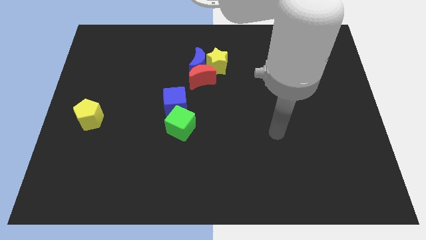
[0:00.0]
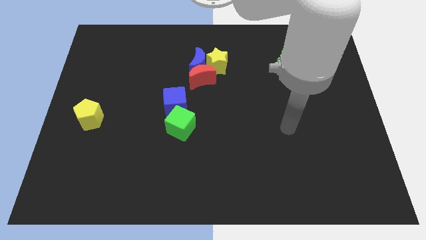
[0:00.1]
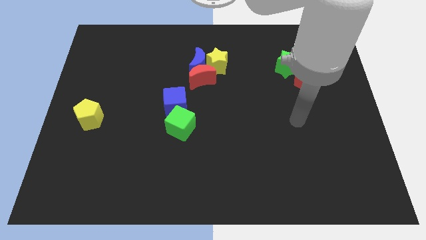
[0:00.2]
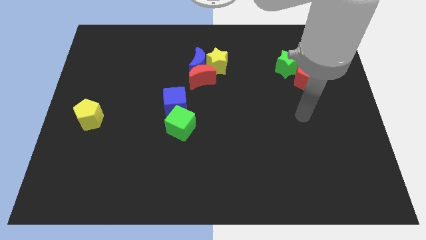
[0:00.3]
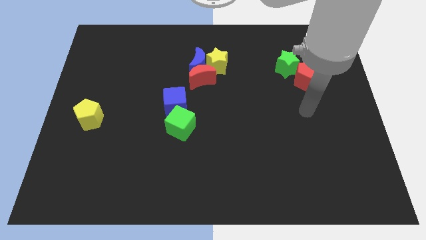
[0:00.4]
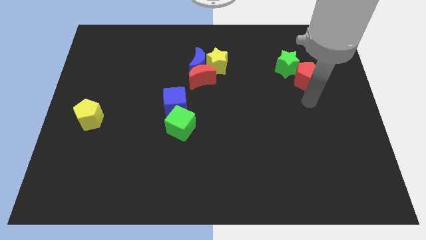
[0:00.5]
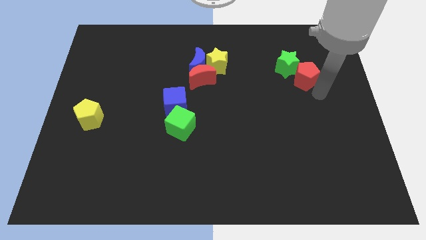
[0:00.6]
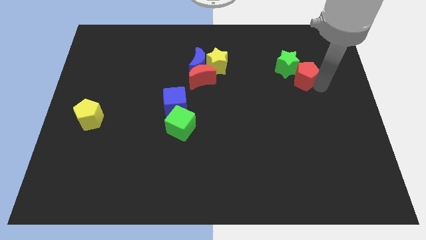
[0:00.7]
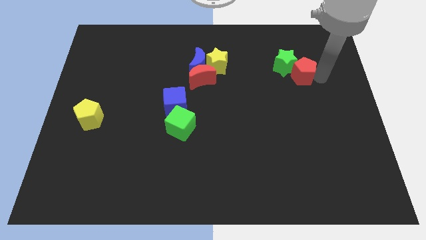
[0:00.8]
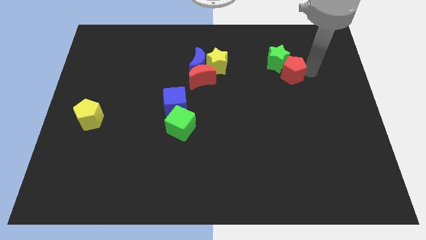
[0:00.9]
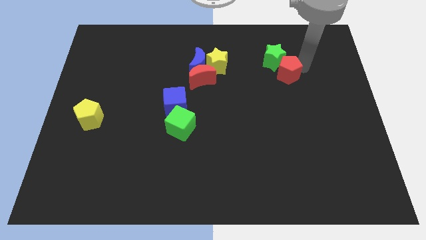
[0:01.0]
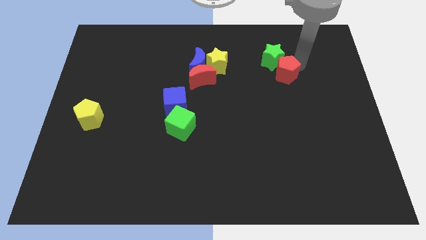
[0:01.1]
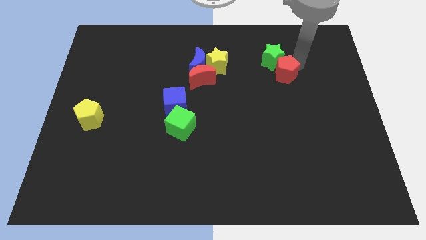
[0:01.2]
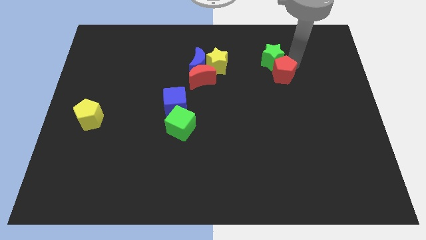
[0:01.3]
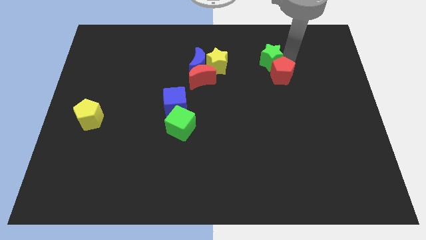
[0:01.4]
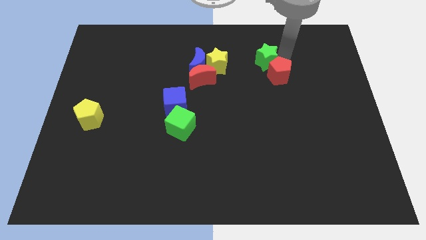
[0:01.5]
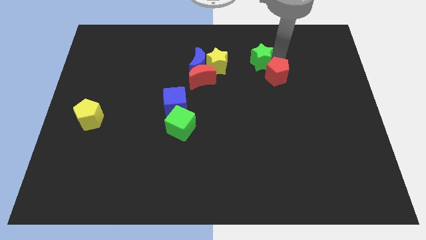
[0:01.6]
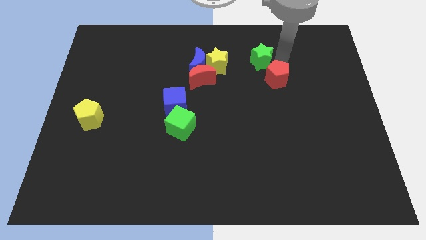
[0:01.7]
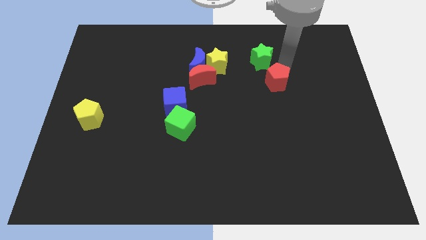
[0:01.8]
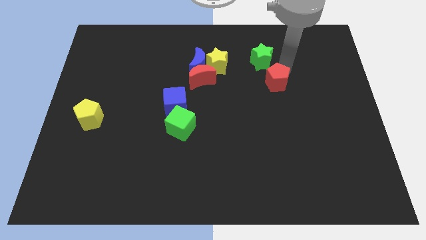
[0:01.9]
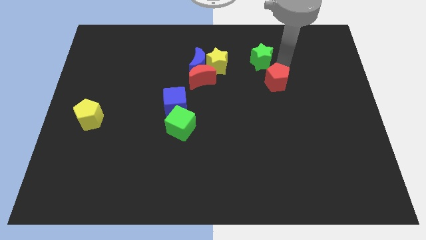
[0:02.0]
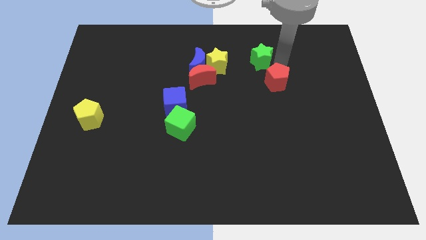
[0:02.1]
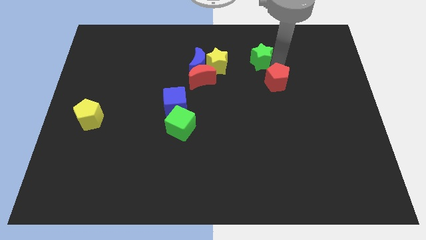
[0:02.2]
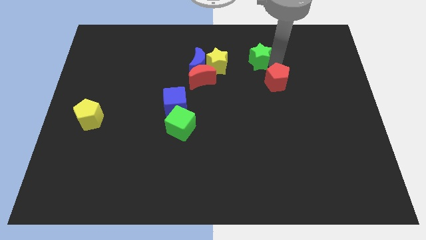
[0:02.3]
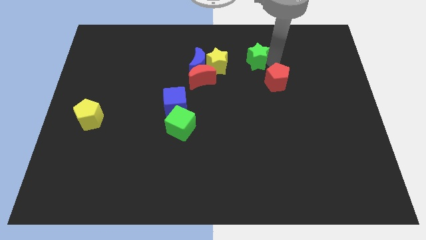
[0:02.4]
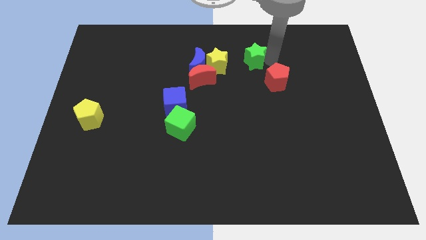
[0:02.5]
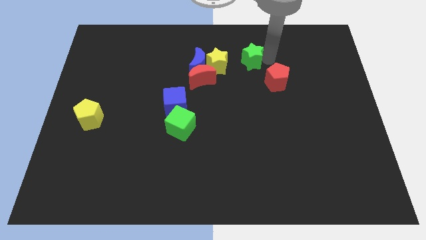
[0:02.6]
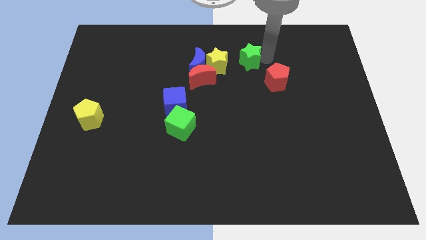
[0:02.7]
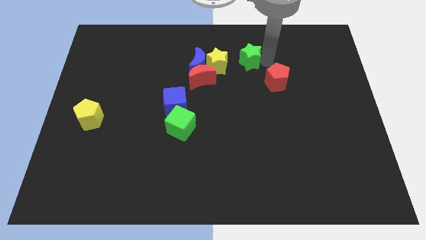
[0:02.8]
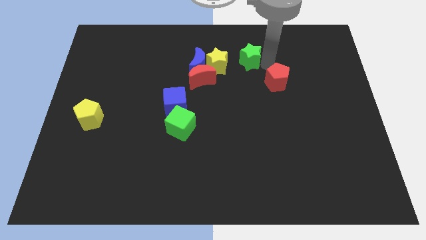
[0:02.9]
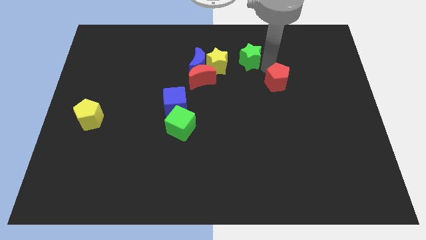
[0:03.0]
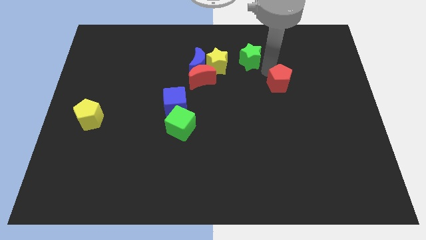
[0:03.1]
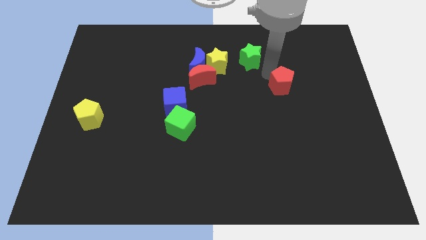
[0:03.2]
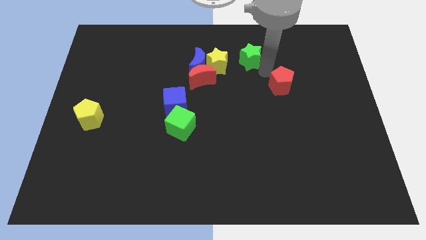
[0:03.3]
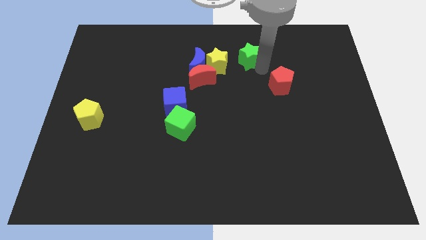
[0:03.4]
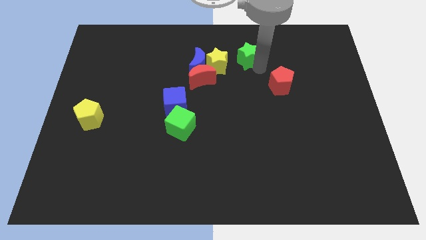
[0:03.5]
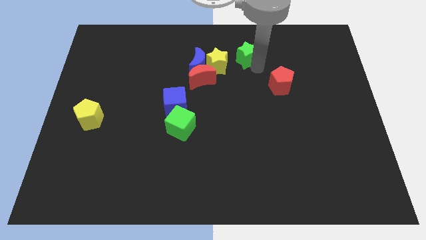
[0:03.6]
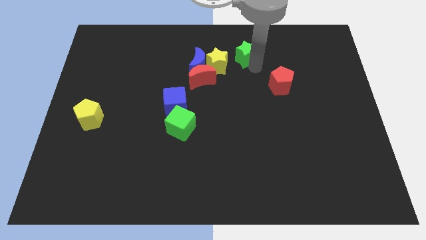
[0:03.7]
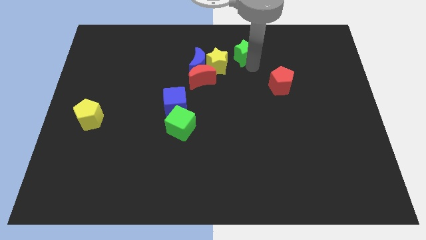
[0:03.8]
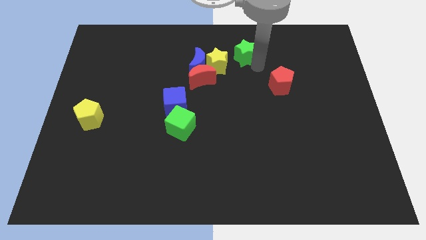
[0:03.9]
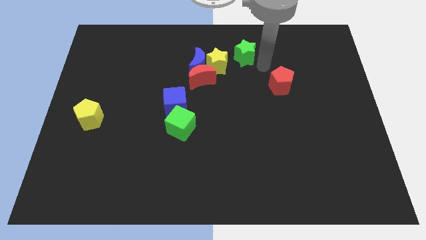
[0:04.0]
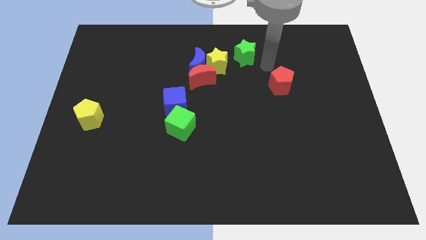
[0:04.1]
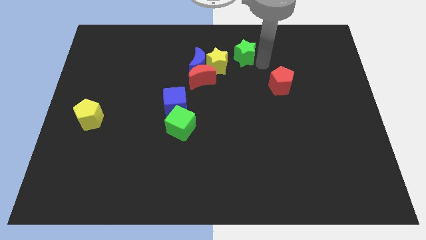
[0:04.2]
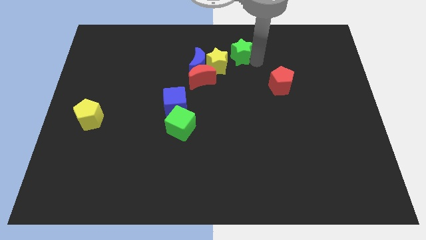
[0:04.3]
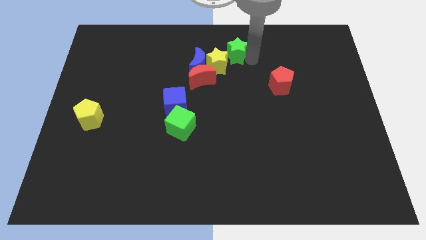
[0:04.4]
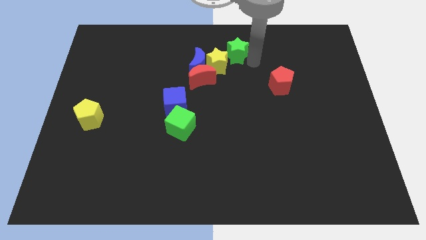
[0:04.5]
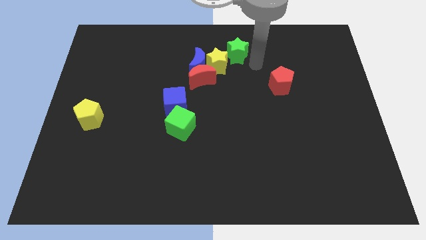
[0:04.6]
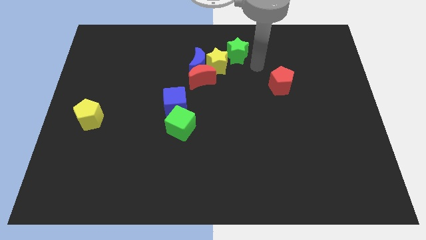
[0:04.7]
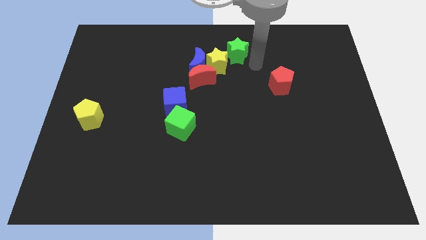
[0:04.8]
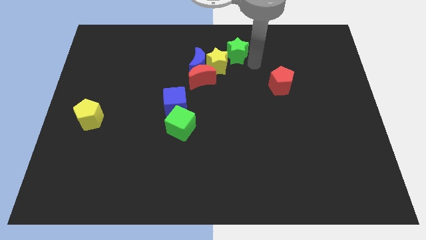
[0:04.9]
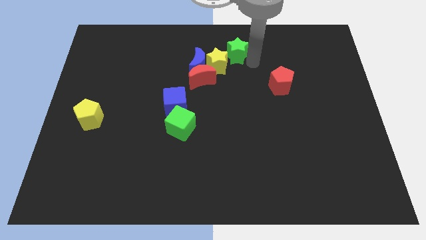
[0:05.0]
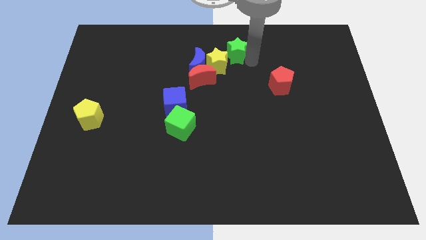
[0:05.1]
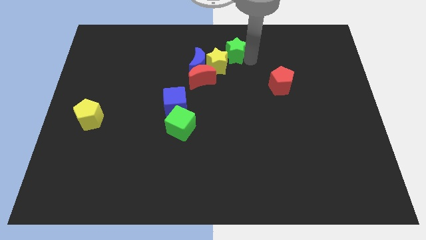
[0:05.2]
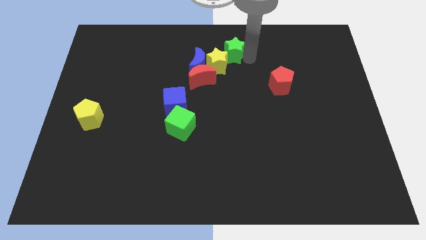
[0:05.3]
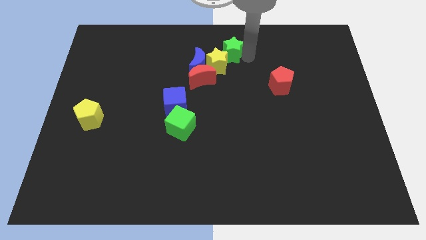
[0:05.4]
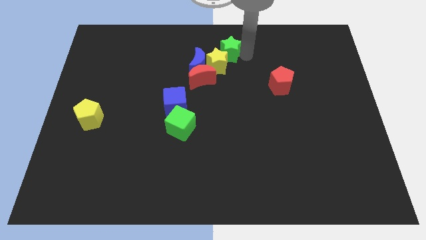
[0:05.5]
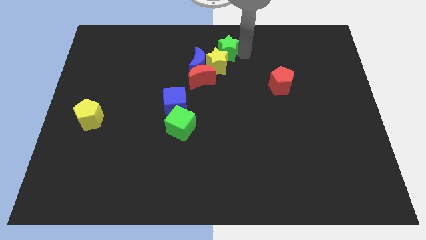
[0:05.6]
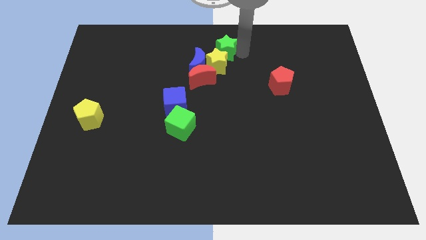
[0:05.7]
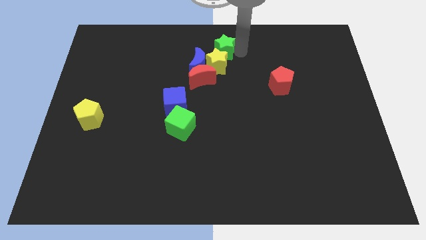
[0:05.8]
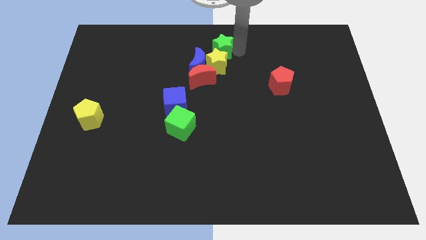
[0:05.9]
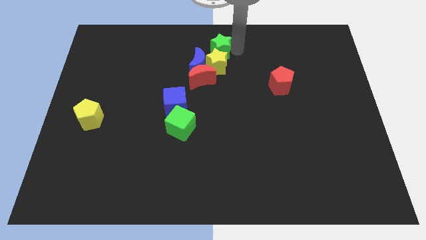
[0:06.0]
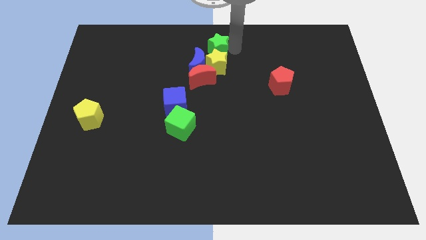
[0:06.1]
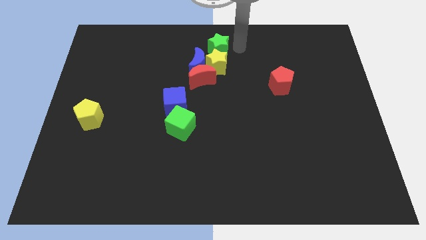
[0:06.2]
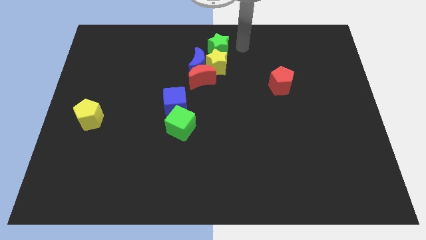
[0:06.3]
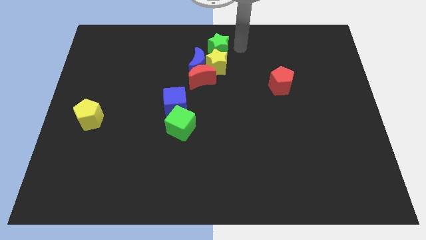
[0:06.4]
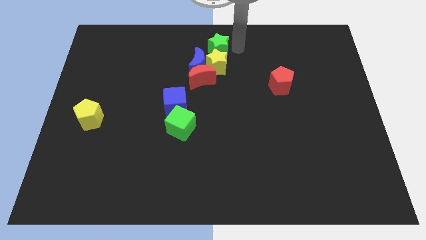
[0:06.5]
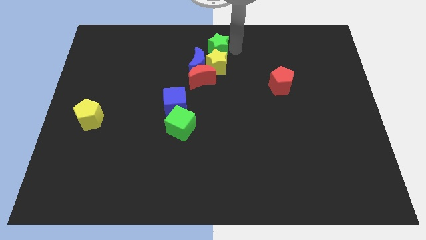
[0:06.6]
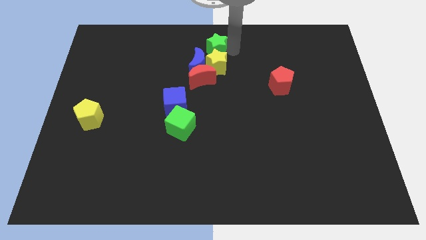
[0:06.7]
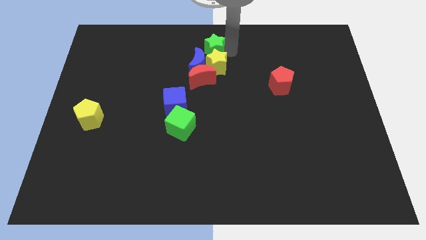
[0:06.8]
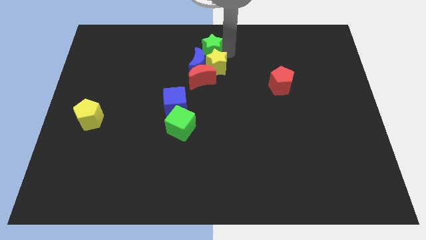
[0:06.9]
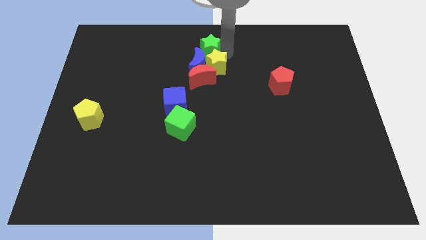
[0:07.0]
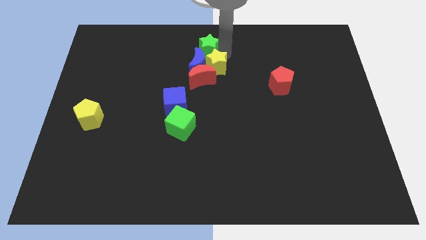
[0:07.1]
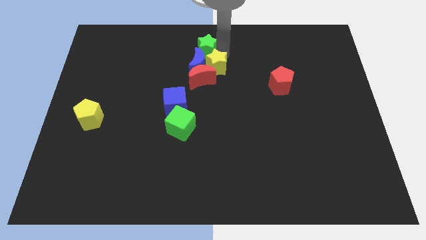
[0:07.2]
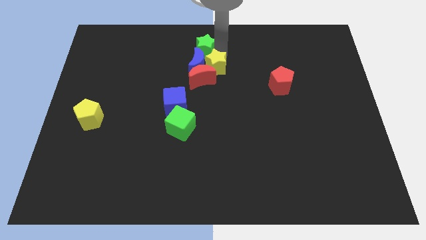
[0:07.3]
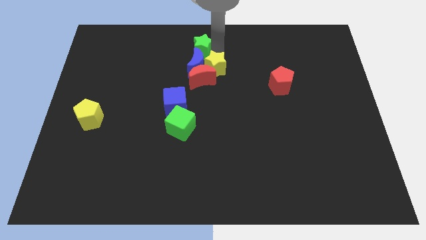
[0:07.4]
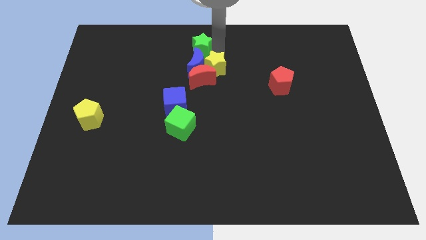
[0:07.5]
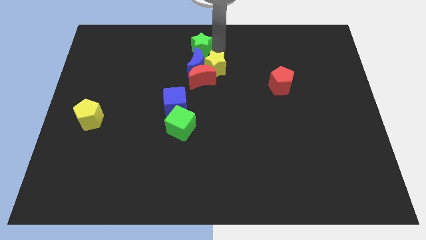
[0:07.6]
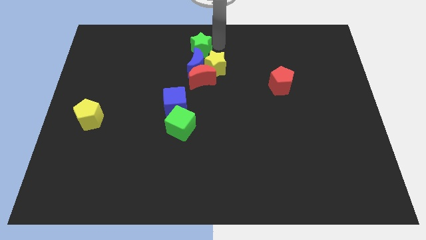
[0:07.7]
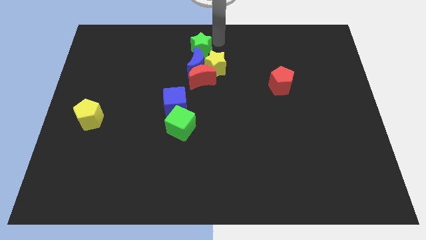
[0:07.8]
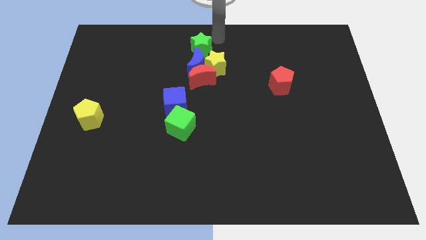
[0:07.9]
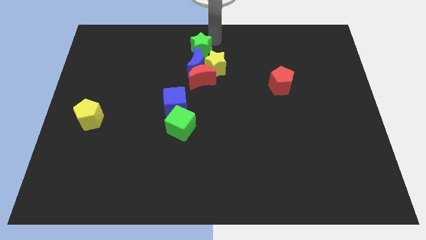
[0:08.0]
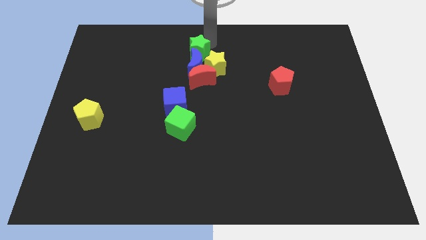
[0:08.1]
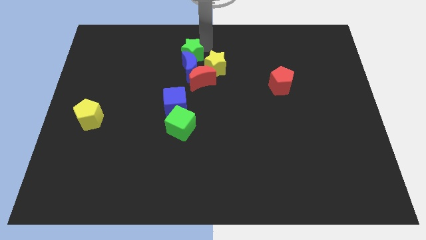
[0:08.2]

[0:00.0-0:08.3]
push the green star to the top left side of the red moon
